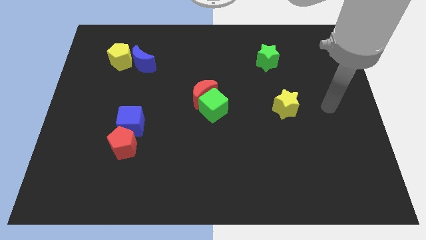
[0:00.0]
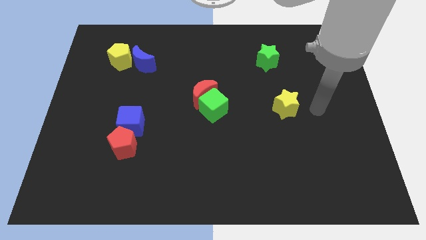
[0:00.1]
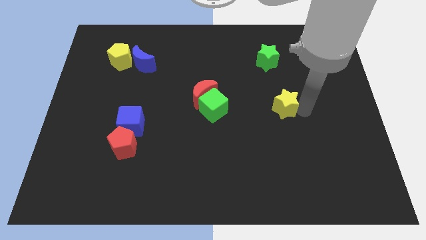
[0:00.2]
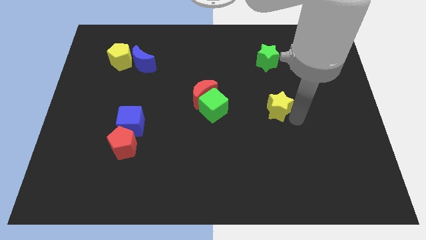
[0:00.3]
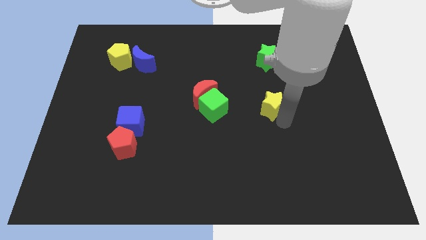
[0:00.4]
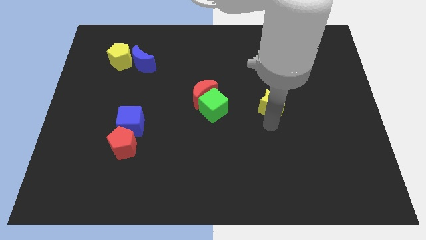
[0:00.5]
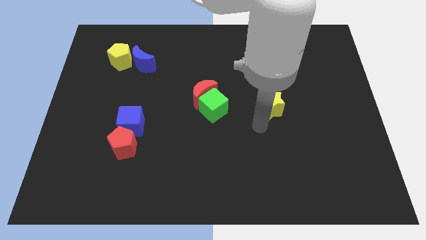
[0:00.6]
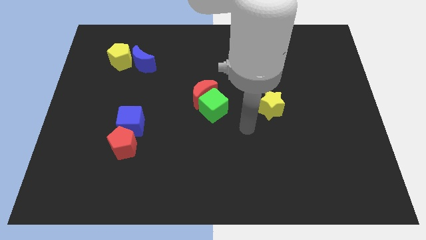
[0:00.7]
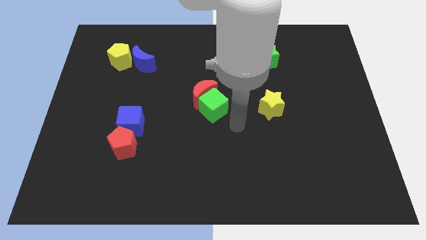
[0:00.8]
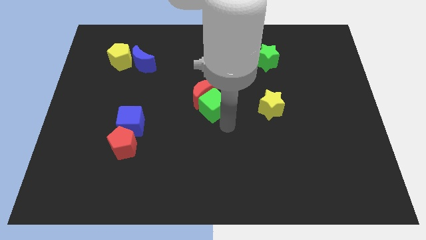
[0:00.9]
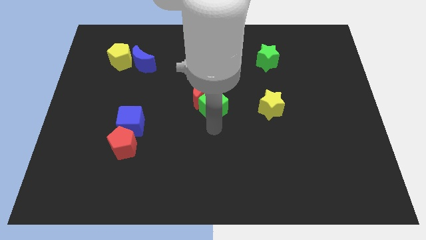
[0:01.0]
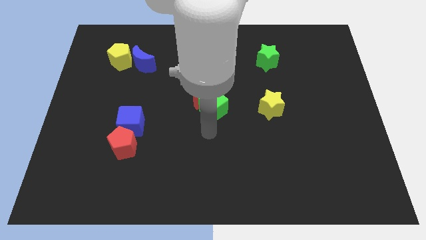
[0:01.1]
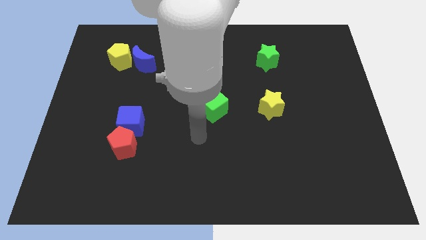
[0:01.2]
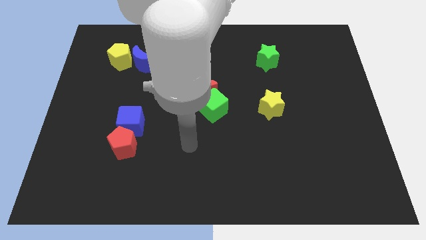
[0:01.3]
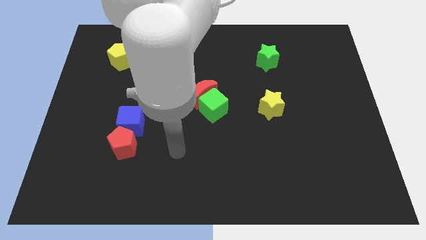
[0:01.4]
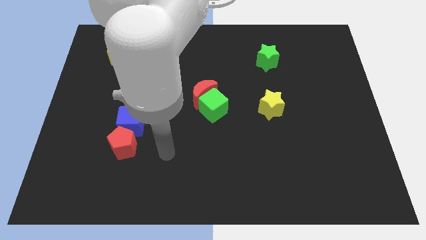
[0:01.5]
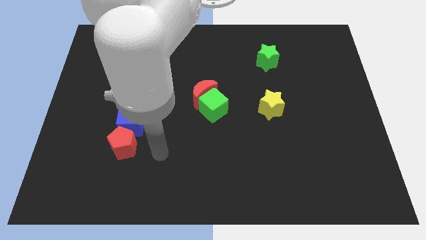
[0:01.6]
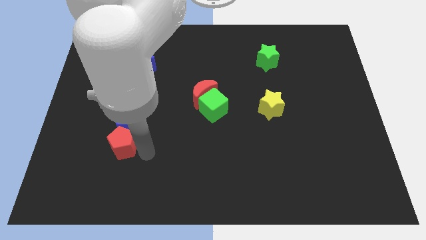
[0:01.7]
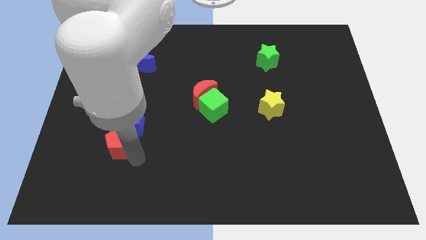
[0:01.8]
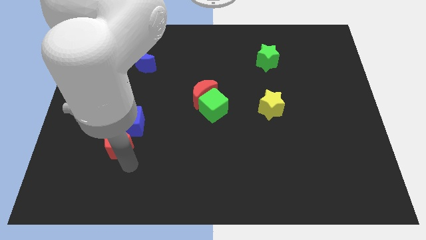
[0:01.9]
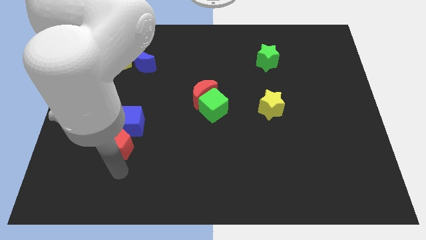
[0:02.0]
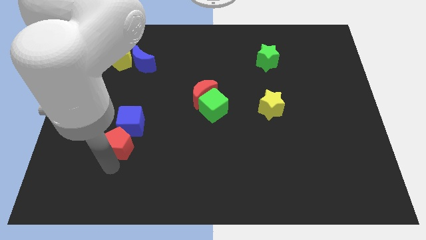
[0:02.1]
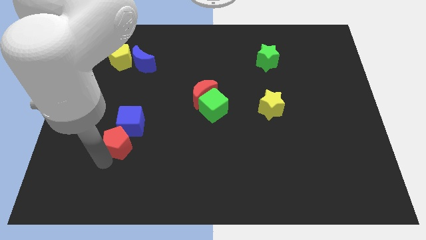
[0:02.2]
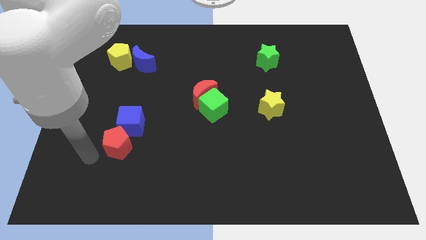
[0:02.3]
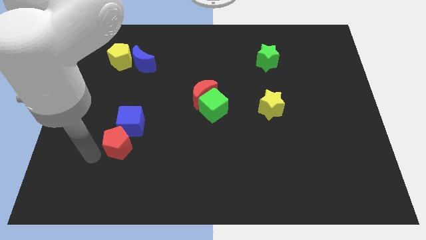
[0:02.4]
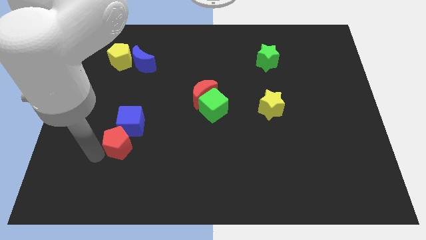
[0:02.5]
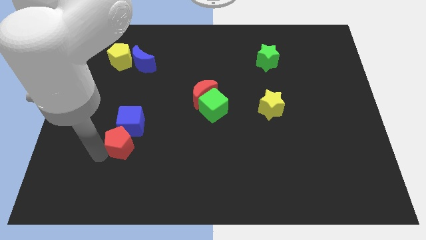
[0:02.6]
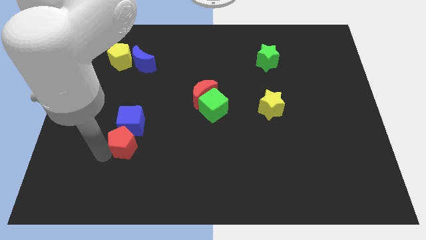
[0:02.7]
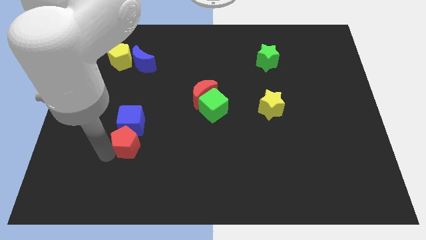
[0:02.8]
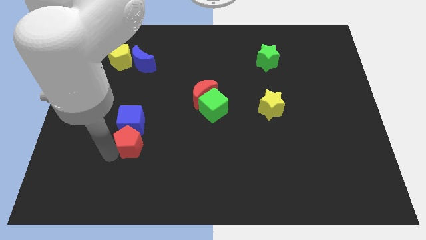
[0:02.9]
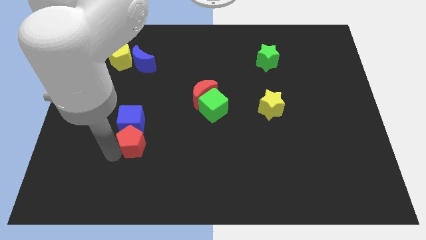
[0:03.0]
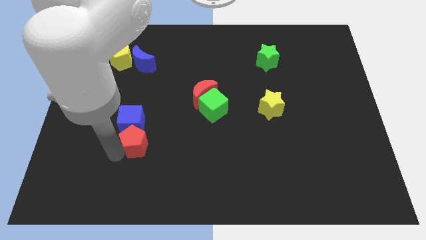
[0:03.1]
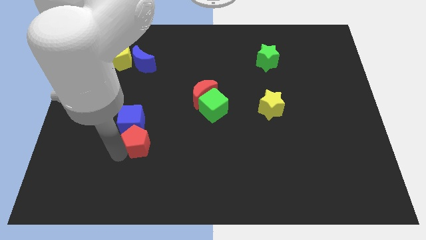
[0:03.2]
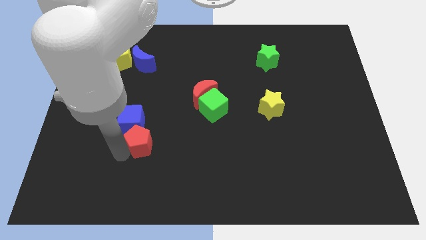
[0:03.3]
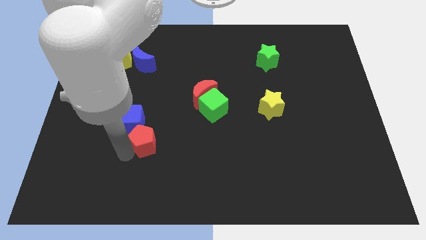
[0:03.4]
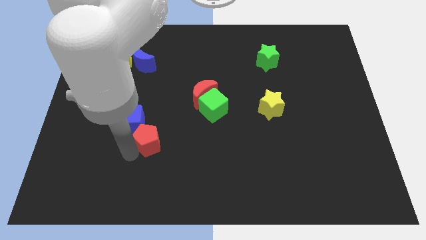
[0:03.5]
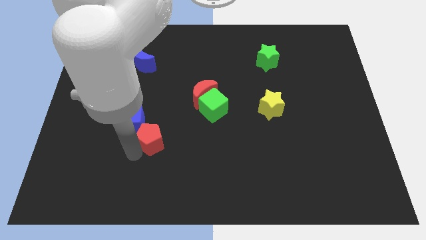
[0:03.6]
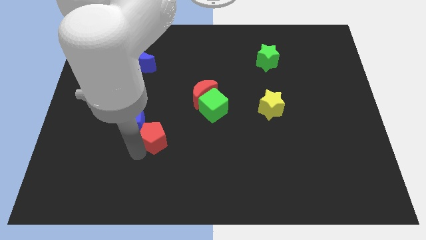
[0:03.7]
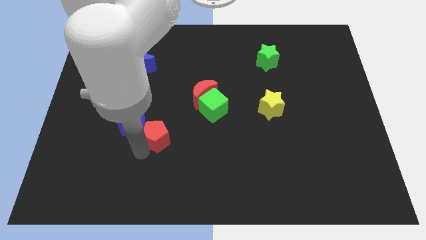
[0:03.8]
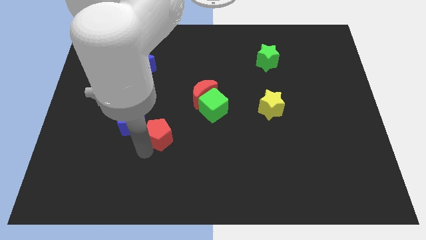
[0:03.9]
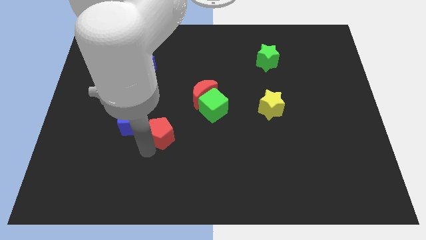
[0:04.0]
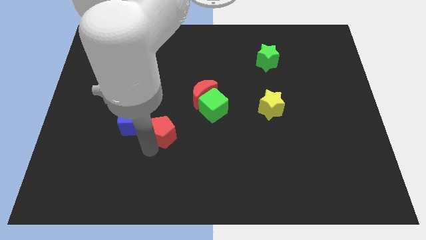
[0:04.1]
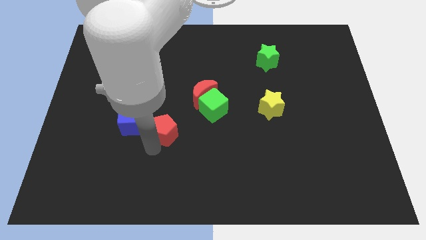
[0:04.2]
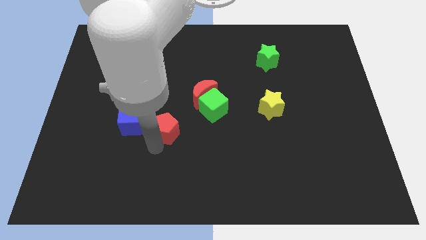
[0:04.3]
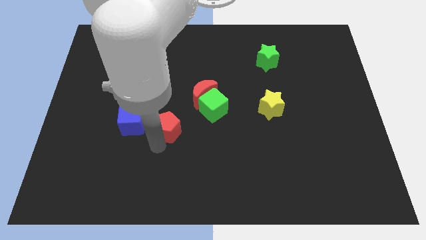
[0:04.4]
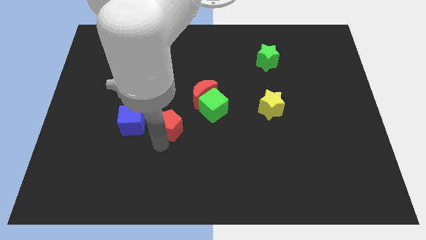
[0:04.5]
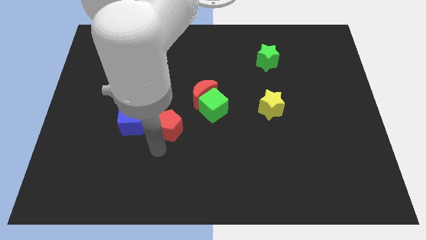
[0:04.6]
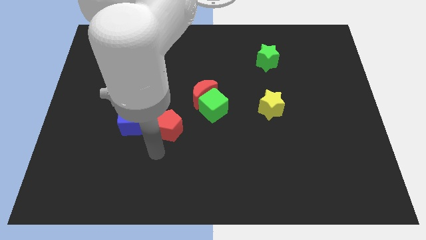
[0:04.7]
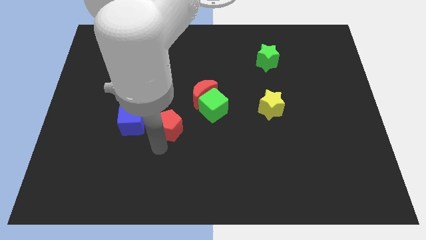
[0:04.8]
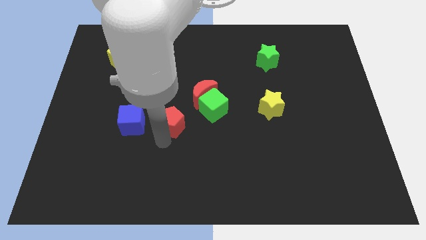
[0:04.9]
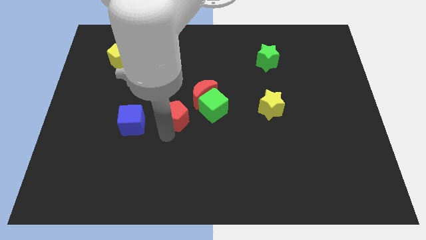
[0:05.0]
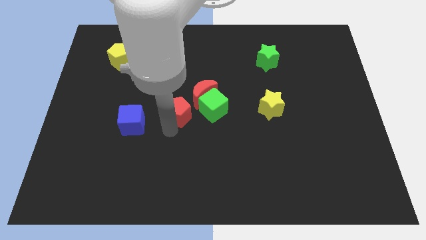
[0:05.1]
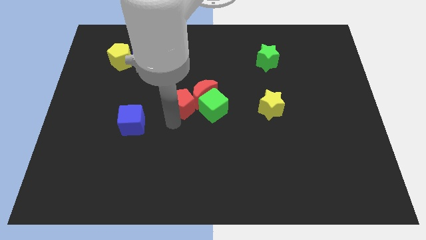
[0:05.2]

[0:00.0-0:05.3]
move the red pentagon close to the red moon

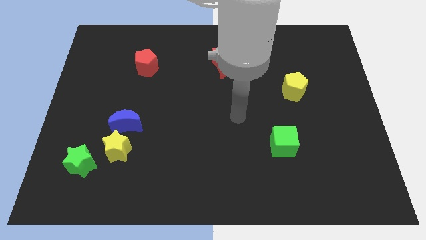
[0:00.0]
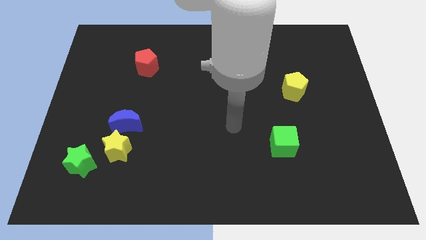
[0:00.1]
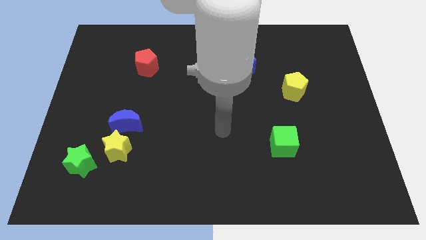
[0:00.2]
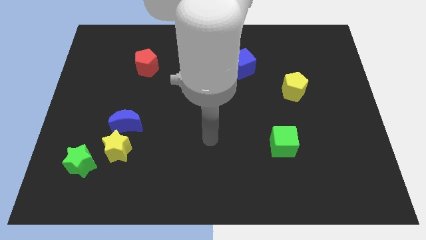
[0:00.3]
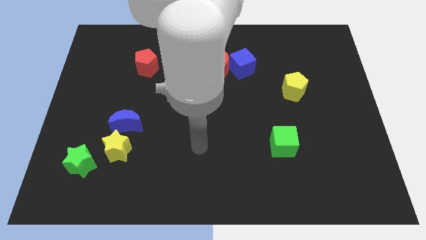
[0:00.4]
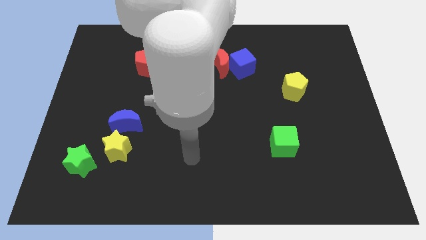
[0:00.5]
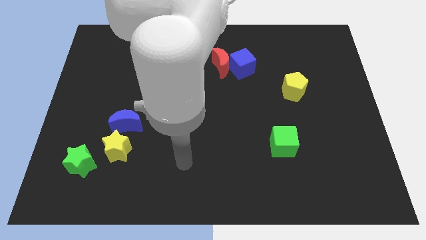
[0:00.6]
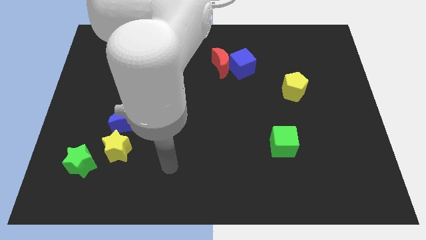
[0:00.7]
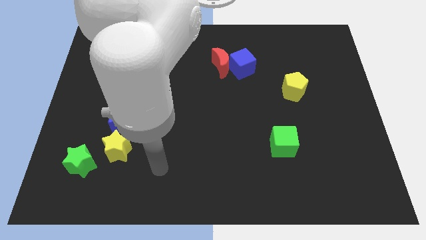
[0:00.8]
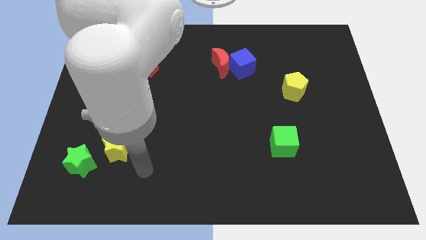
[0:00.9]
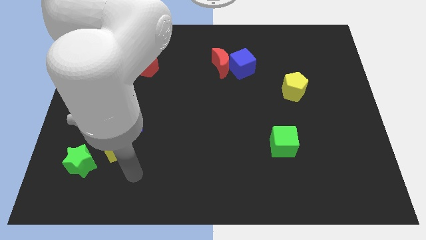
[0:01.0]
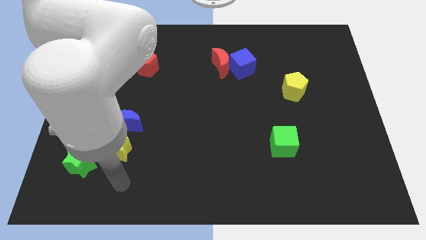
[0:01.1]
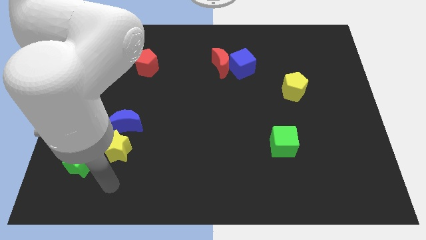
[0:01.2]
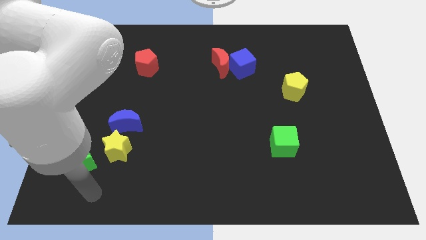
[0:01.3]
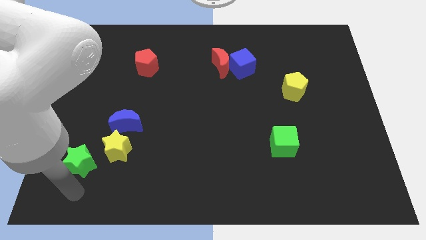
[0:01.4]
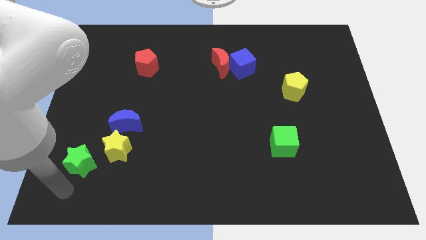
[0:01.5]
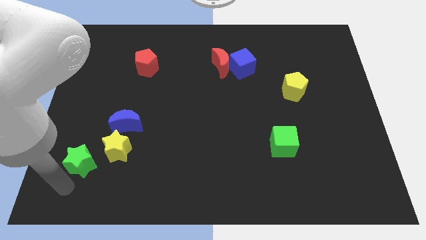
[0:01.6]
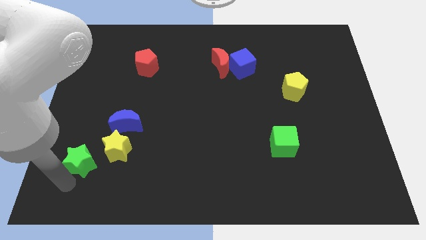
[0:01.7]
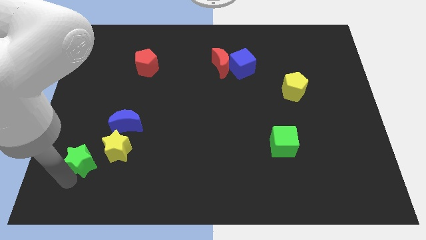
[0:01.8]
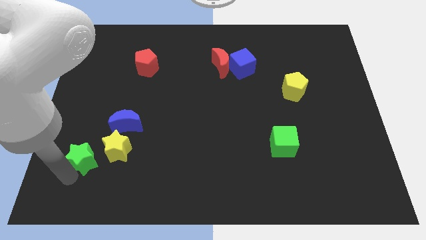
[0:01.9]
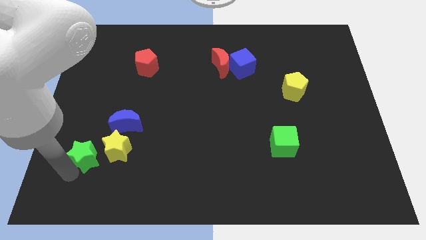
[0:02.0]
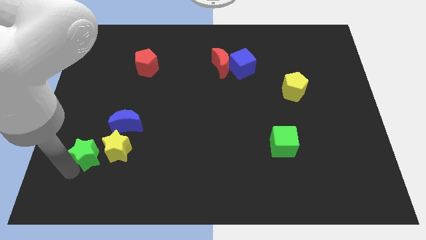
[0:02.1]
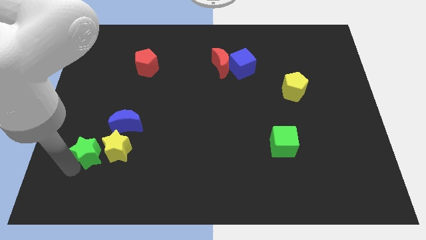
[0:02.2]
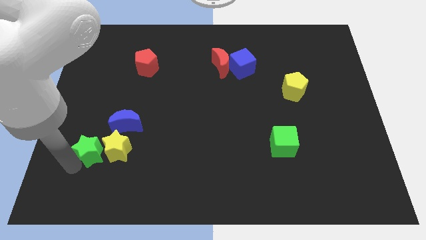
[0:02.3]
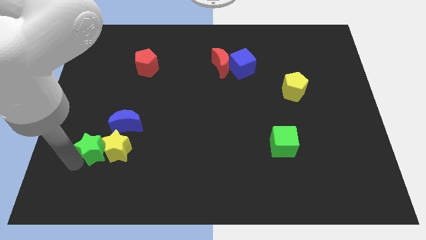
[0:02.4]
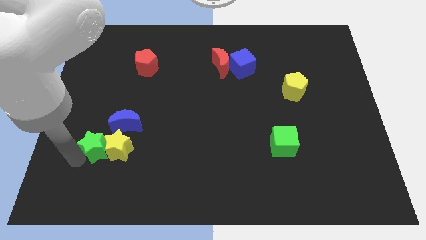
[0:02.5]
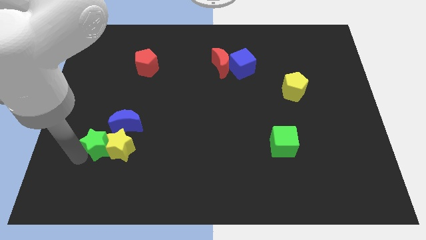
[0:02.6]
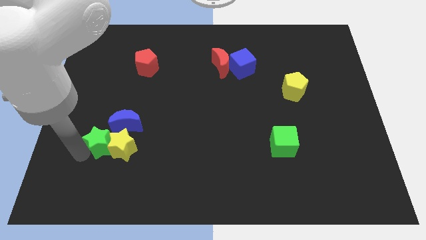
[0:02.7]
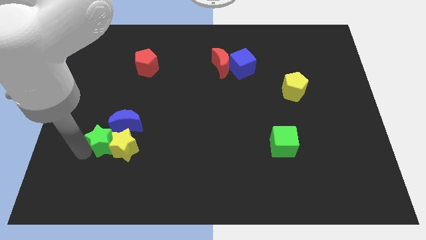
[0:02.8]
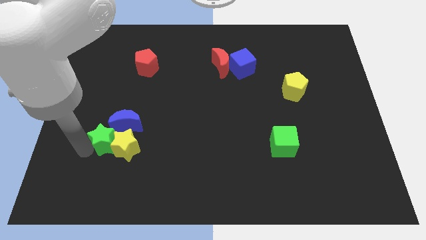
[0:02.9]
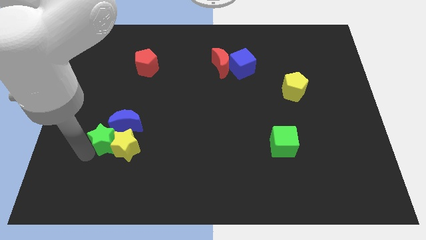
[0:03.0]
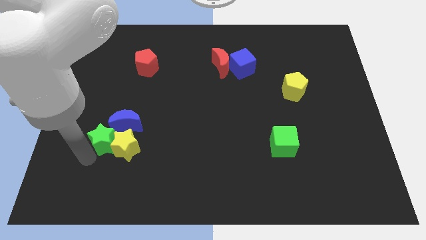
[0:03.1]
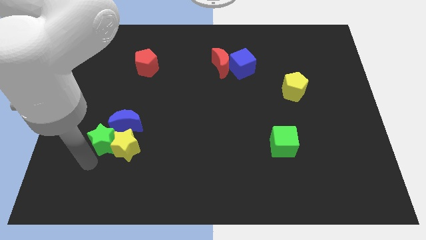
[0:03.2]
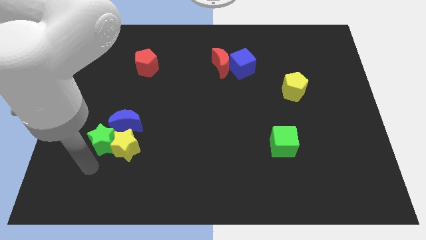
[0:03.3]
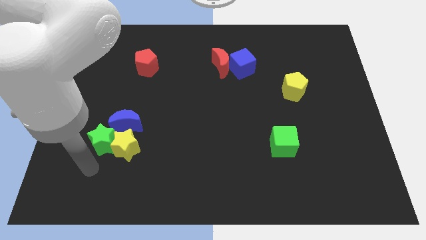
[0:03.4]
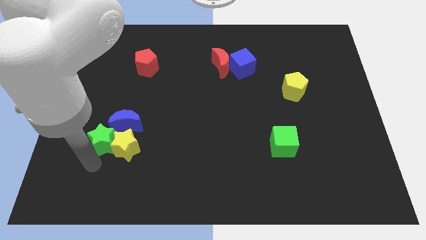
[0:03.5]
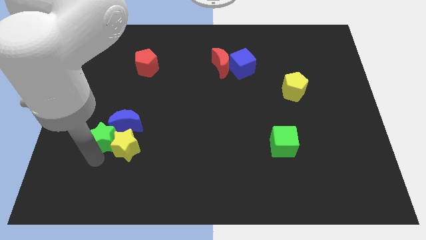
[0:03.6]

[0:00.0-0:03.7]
put the green star next to the blue moon
